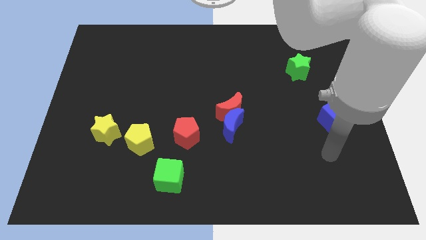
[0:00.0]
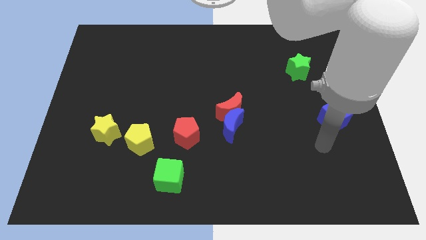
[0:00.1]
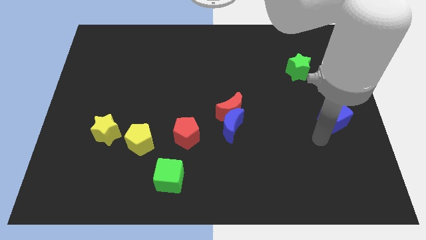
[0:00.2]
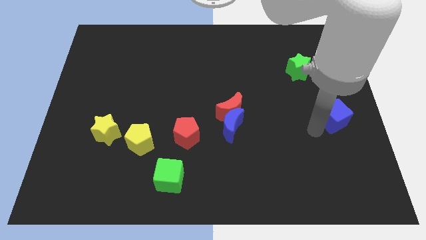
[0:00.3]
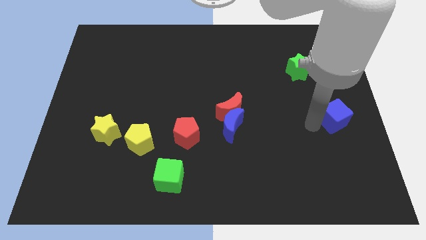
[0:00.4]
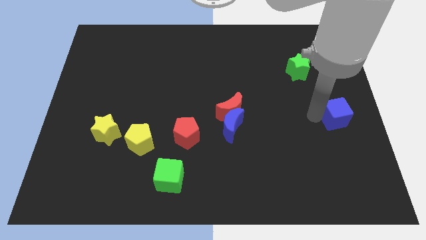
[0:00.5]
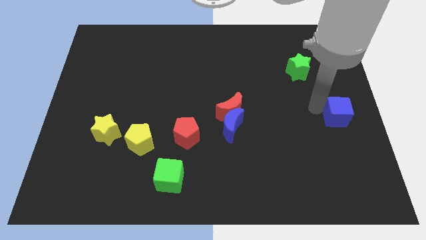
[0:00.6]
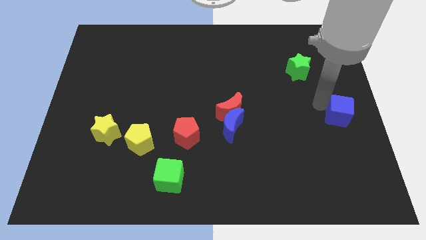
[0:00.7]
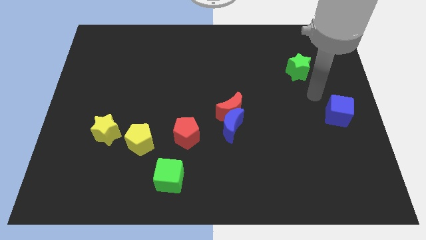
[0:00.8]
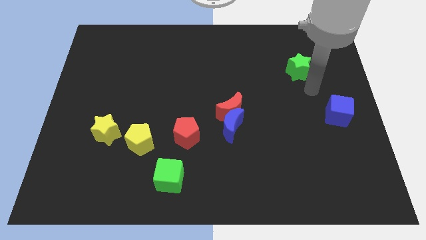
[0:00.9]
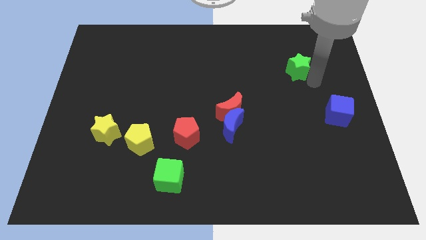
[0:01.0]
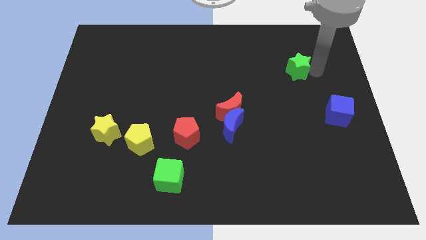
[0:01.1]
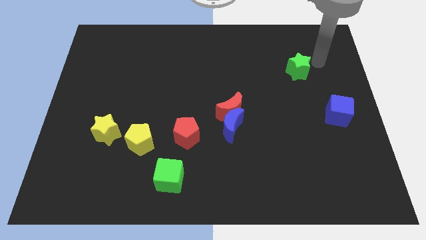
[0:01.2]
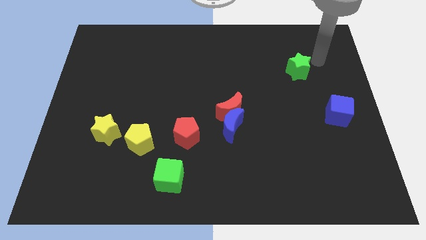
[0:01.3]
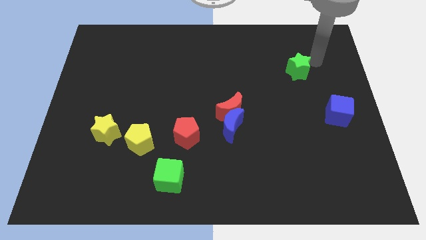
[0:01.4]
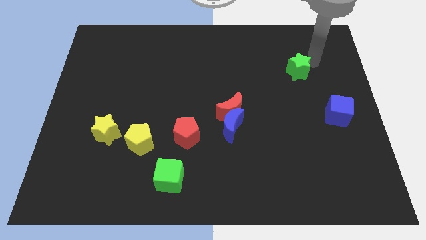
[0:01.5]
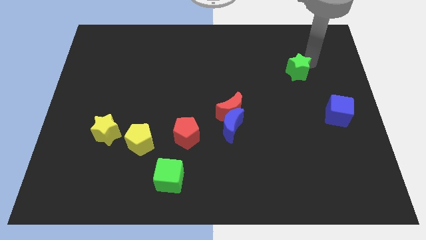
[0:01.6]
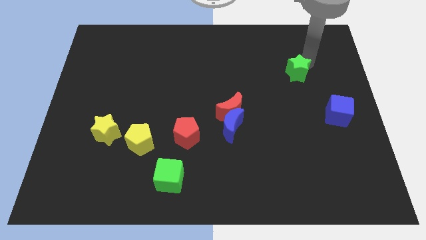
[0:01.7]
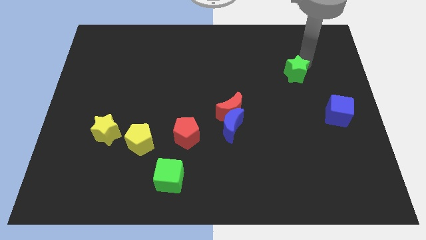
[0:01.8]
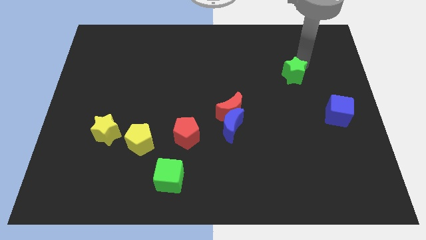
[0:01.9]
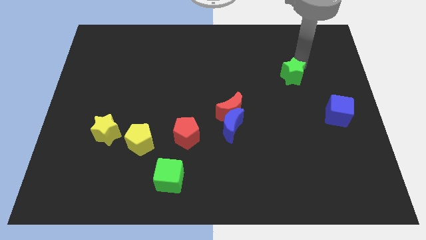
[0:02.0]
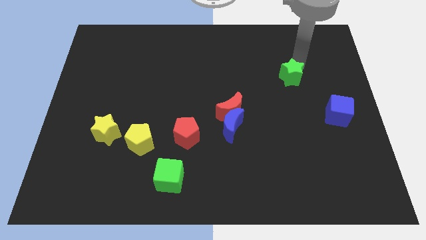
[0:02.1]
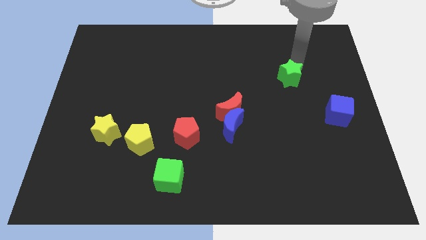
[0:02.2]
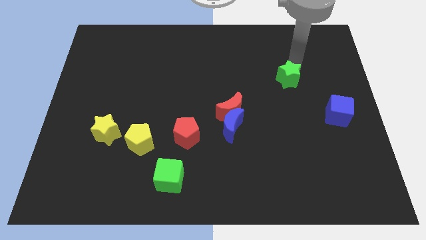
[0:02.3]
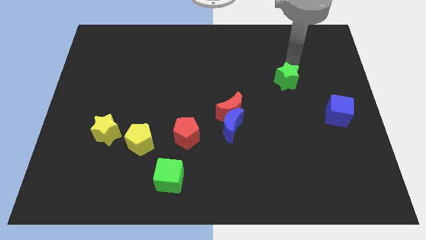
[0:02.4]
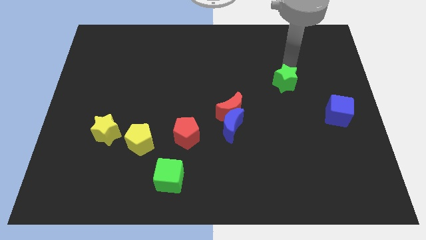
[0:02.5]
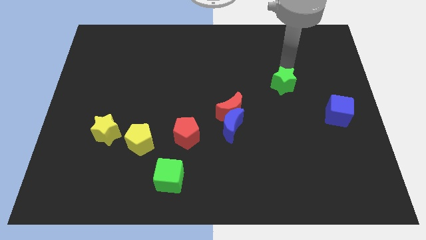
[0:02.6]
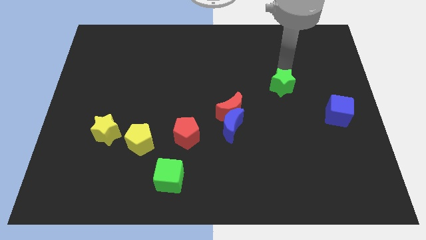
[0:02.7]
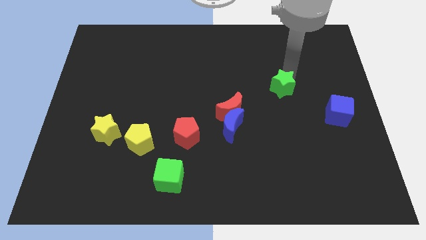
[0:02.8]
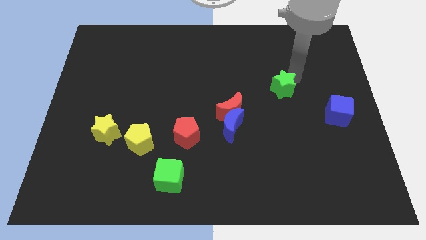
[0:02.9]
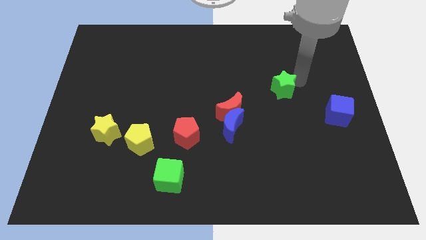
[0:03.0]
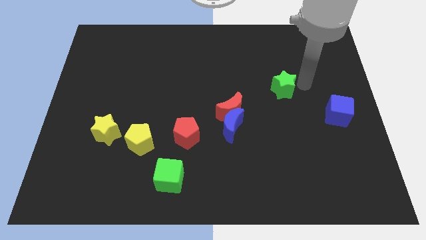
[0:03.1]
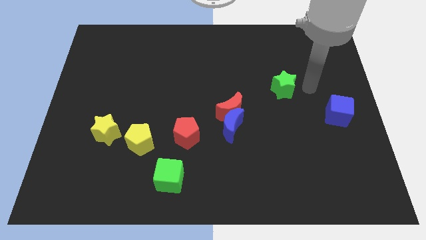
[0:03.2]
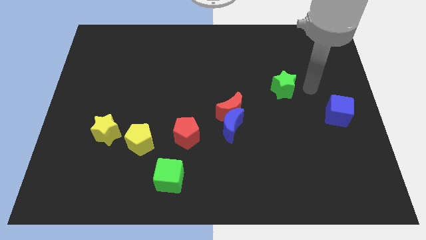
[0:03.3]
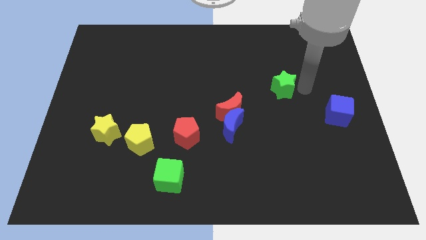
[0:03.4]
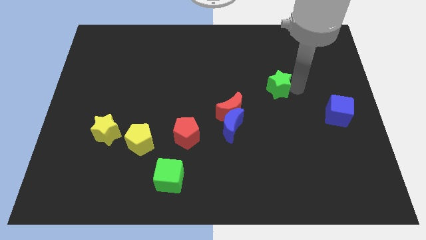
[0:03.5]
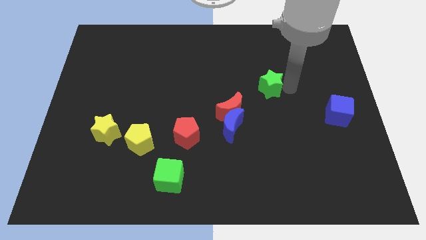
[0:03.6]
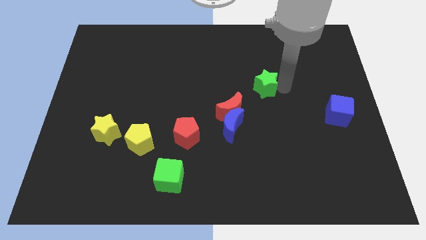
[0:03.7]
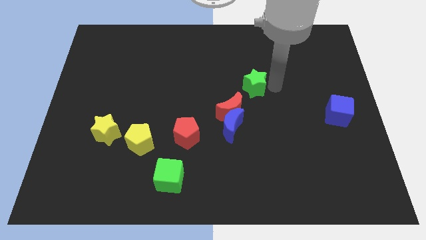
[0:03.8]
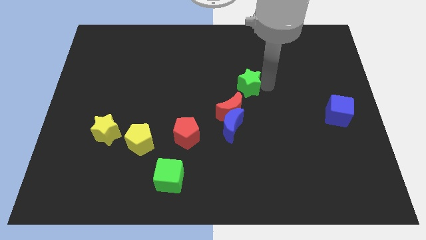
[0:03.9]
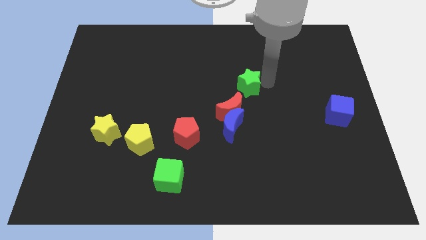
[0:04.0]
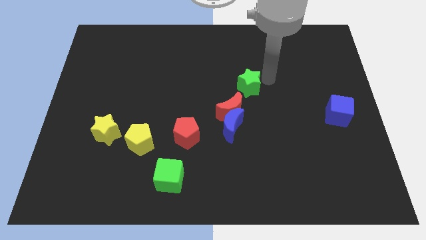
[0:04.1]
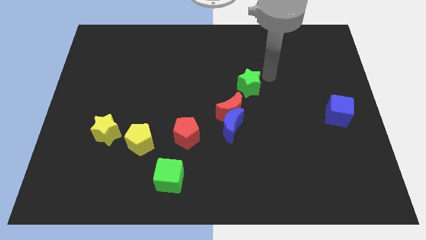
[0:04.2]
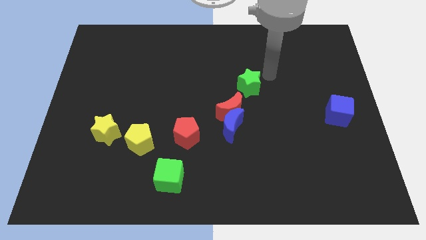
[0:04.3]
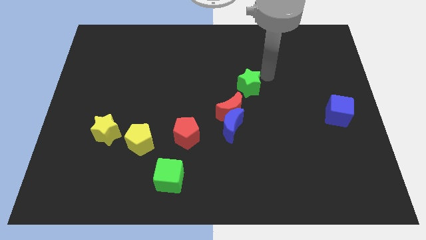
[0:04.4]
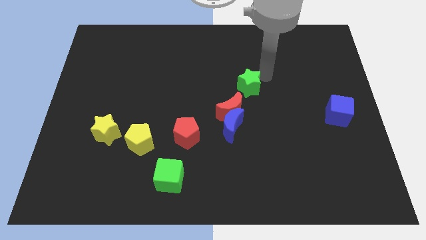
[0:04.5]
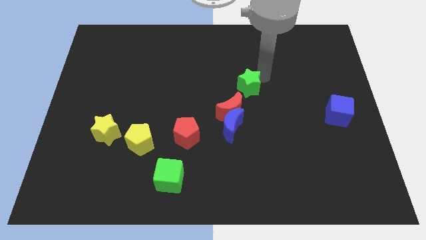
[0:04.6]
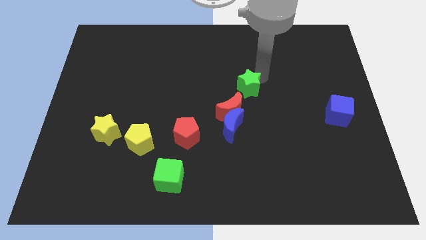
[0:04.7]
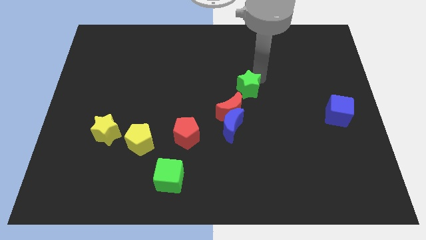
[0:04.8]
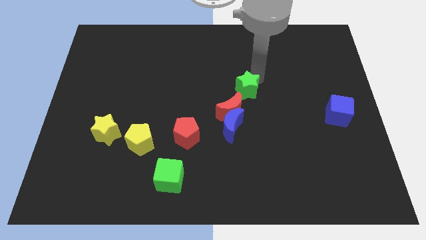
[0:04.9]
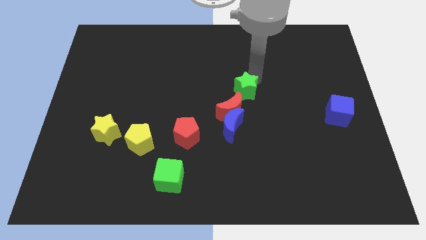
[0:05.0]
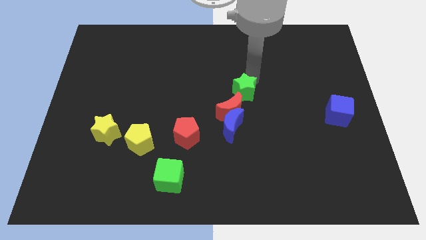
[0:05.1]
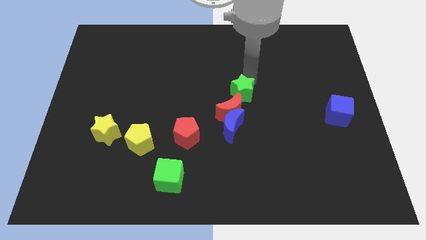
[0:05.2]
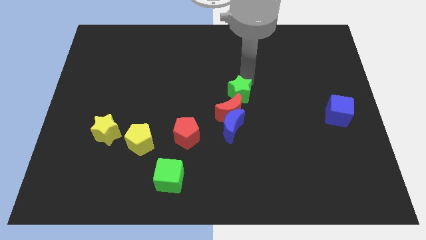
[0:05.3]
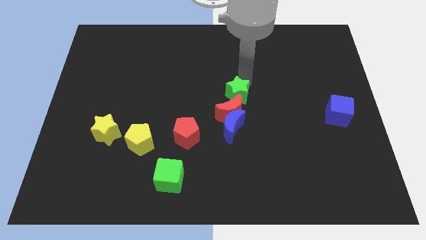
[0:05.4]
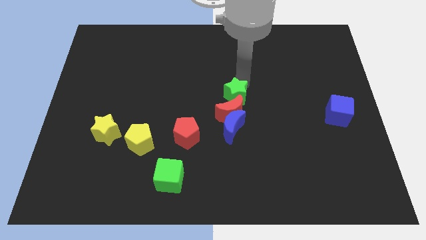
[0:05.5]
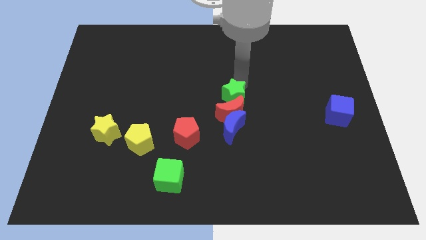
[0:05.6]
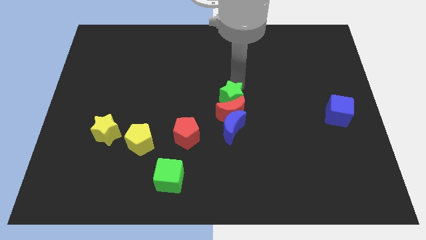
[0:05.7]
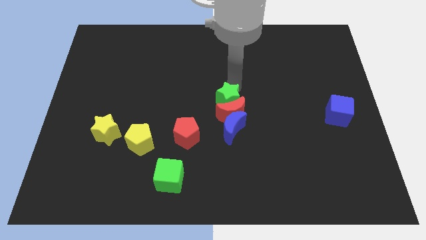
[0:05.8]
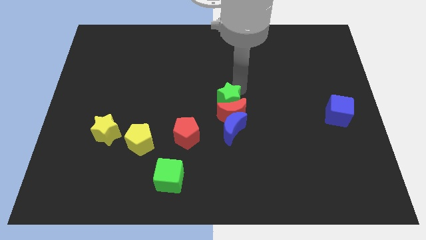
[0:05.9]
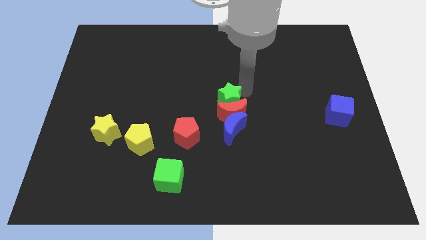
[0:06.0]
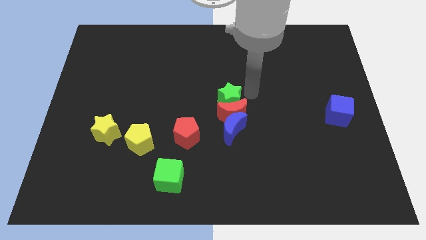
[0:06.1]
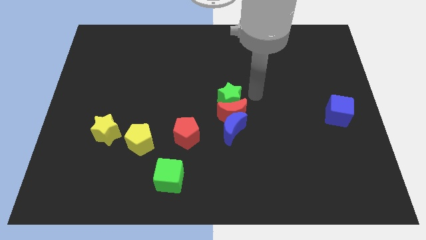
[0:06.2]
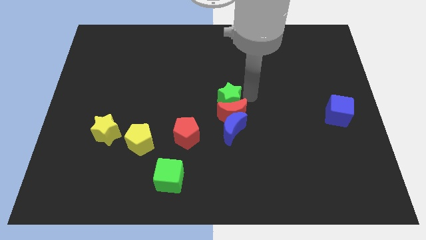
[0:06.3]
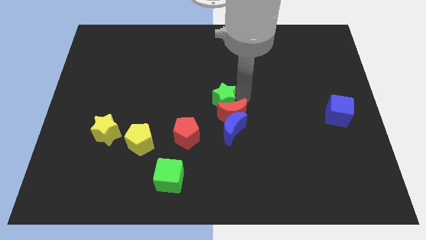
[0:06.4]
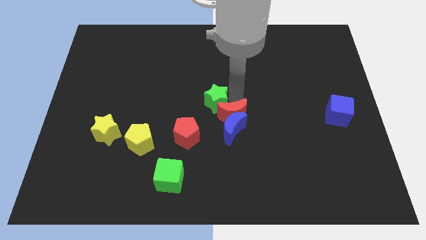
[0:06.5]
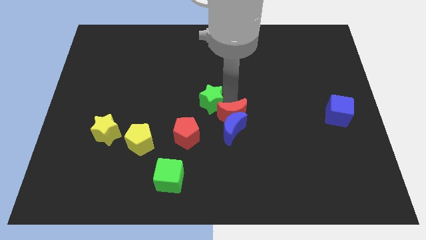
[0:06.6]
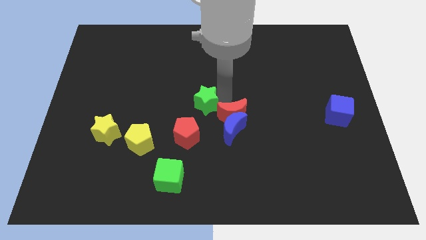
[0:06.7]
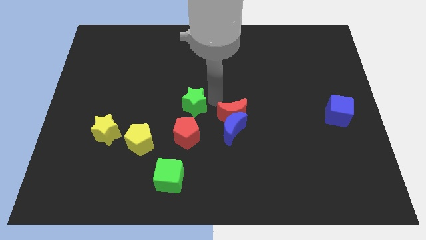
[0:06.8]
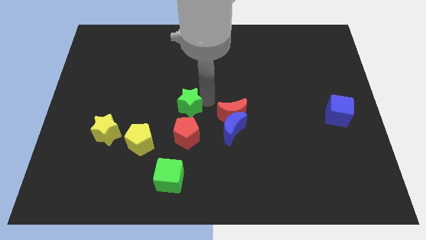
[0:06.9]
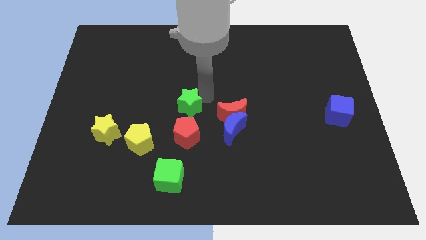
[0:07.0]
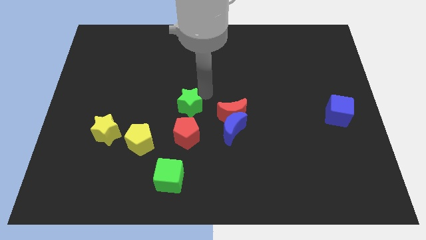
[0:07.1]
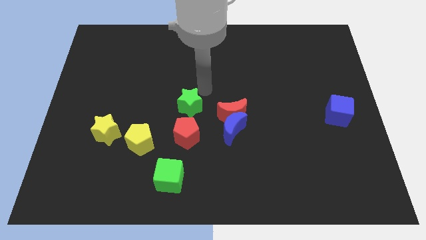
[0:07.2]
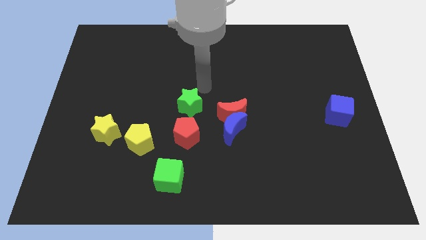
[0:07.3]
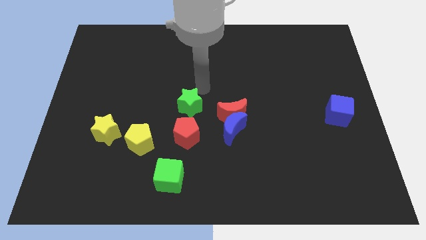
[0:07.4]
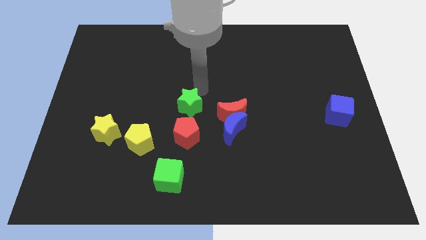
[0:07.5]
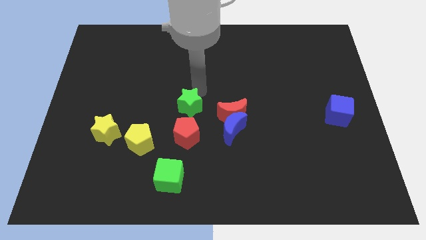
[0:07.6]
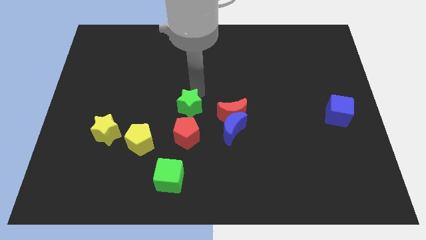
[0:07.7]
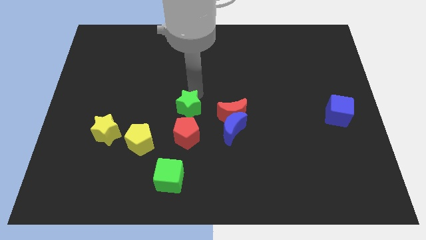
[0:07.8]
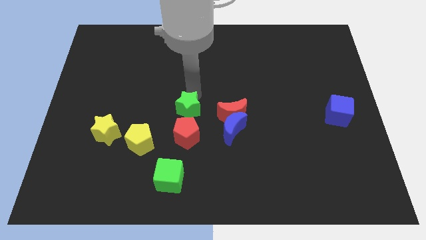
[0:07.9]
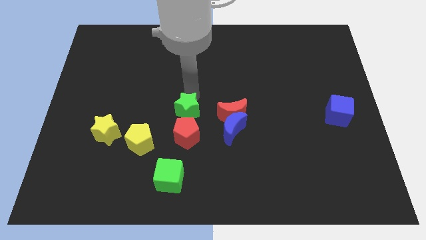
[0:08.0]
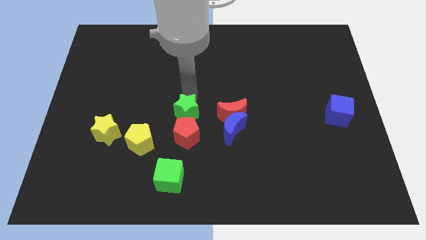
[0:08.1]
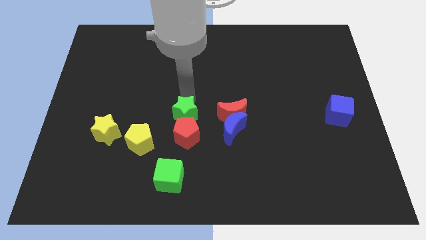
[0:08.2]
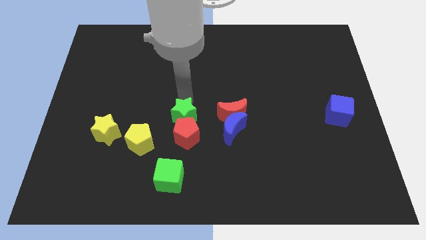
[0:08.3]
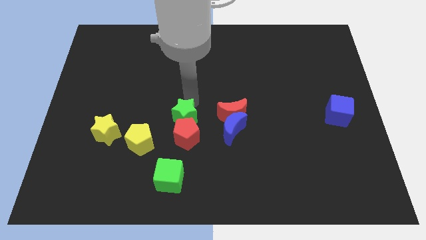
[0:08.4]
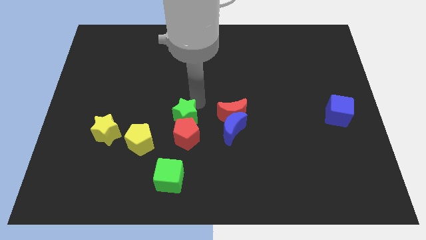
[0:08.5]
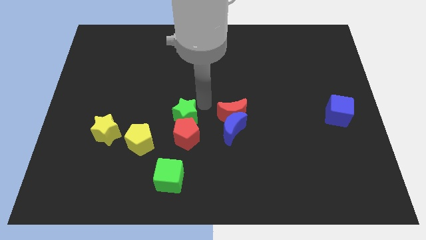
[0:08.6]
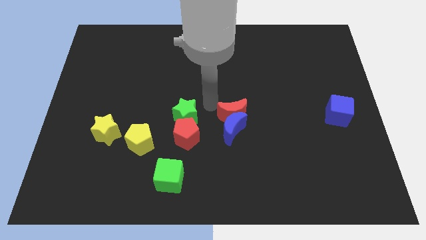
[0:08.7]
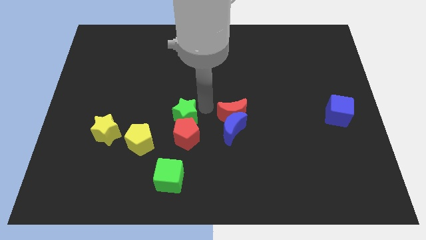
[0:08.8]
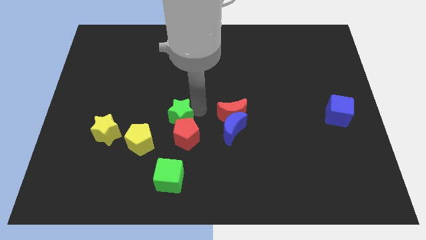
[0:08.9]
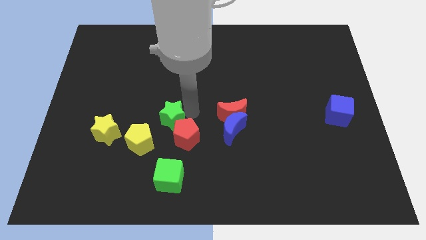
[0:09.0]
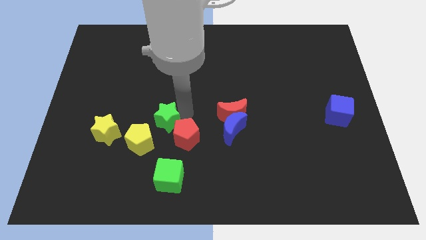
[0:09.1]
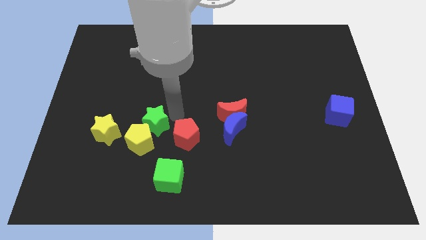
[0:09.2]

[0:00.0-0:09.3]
slide the green star towards the yellow pentagon
